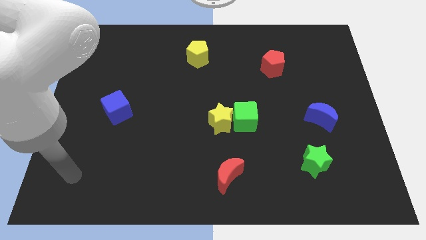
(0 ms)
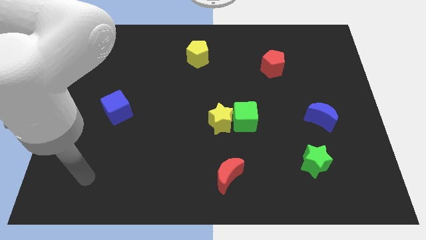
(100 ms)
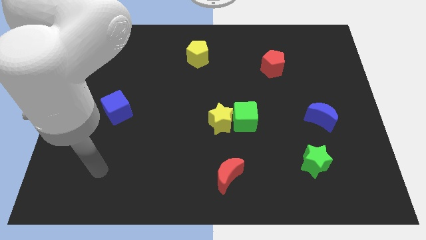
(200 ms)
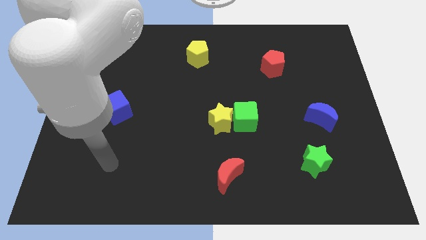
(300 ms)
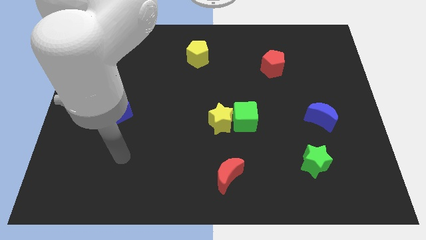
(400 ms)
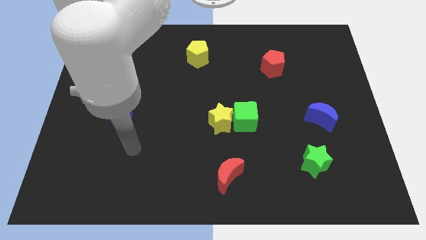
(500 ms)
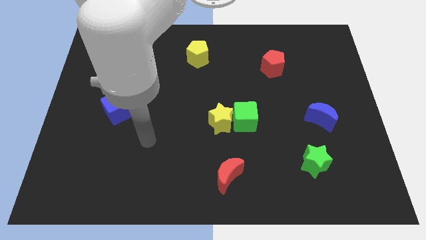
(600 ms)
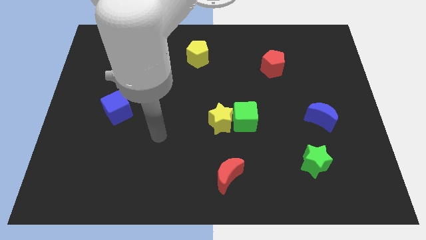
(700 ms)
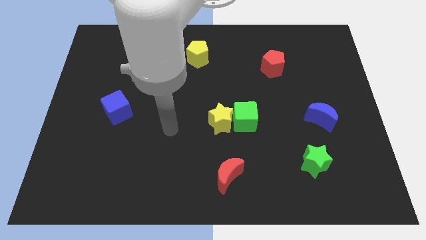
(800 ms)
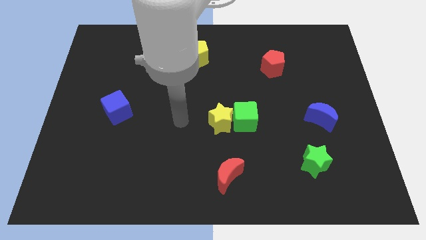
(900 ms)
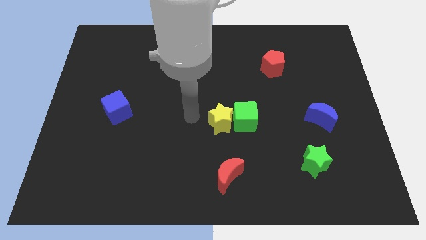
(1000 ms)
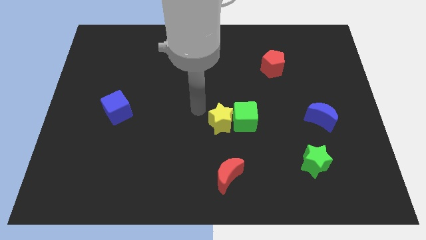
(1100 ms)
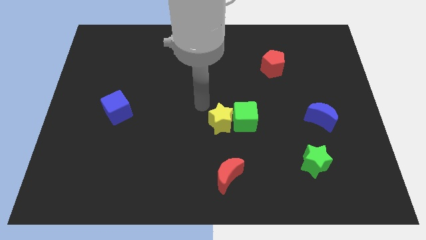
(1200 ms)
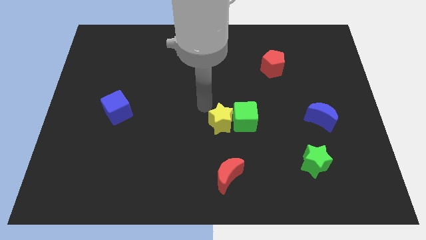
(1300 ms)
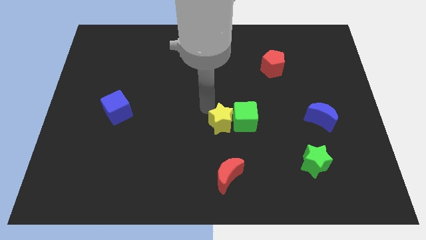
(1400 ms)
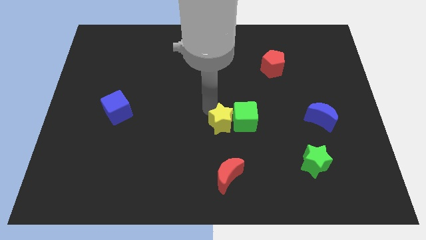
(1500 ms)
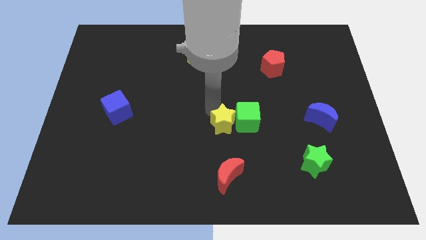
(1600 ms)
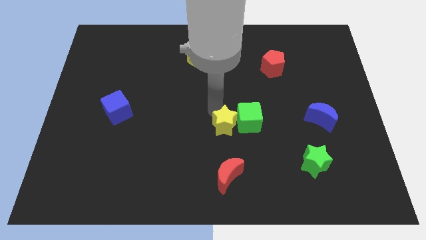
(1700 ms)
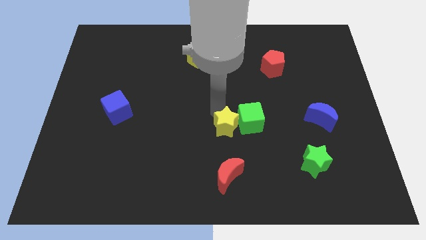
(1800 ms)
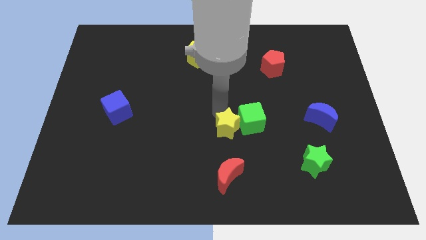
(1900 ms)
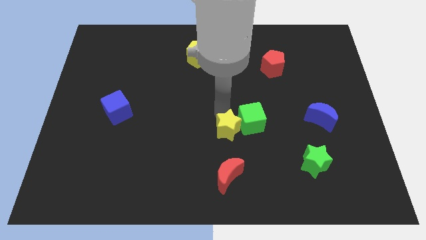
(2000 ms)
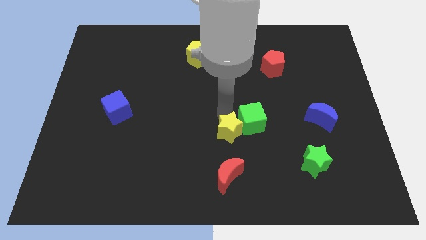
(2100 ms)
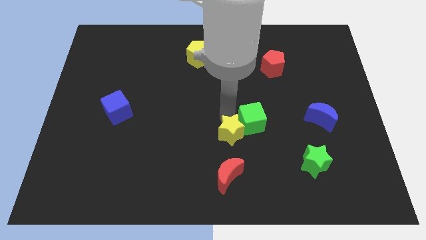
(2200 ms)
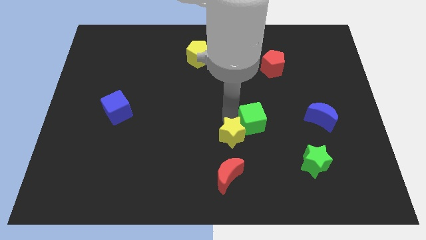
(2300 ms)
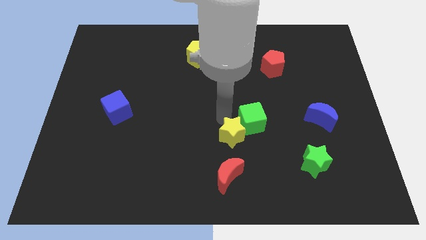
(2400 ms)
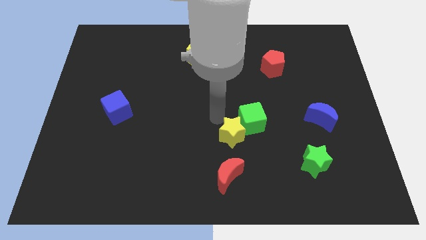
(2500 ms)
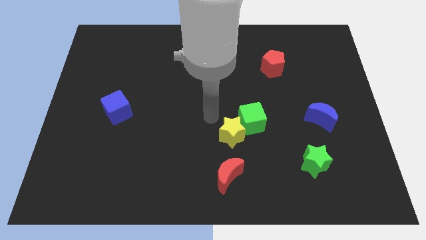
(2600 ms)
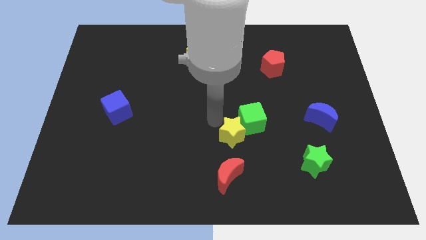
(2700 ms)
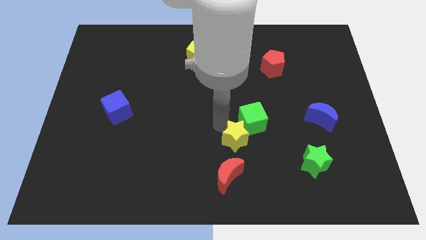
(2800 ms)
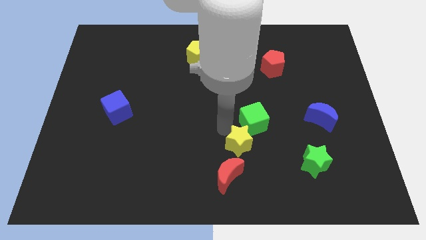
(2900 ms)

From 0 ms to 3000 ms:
move the yellow star a bit downwards and to the right diagonally

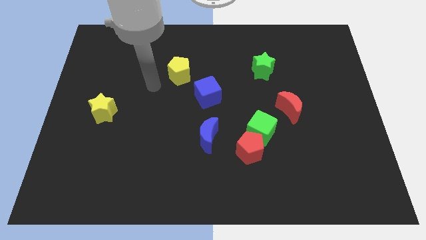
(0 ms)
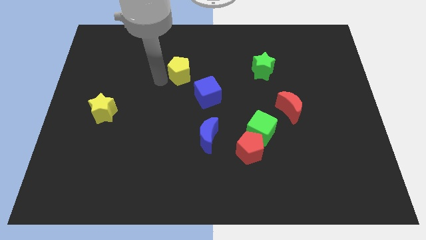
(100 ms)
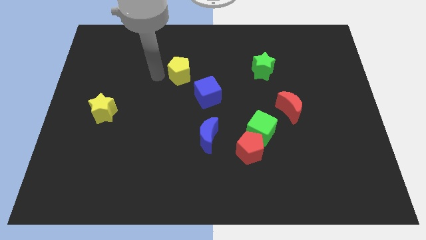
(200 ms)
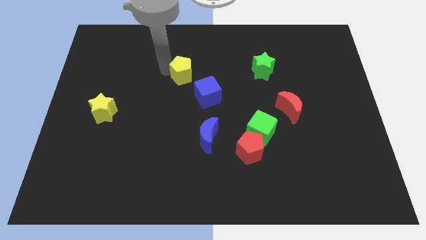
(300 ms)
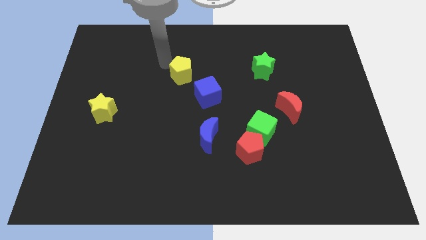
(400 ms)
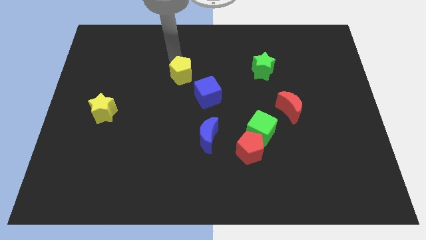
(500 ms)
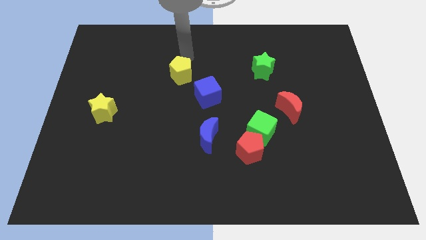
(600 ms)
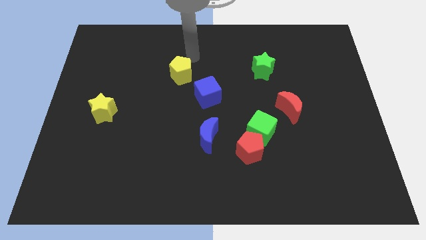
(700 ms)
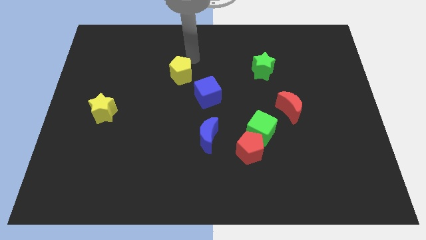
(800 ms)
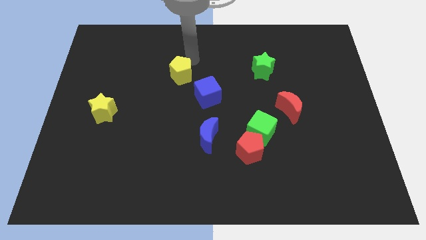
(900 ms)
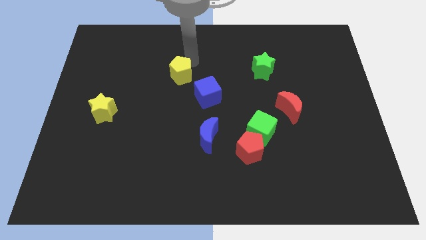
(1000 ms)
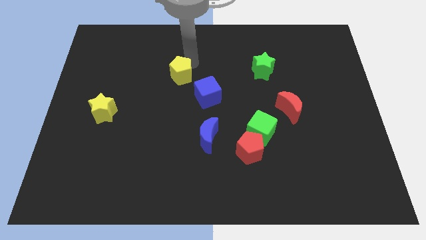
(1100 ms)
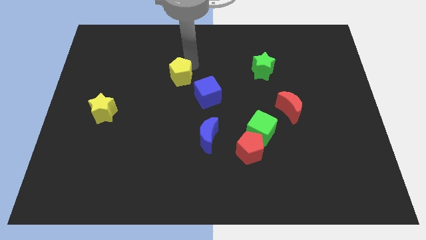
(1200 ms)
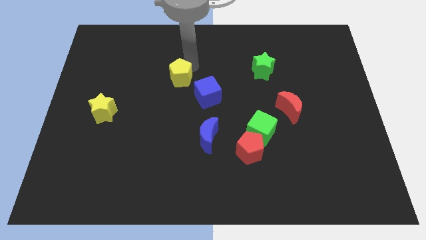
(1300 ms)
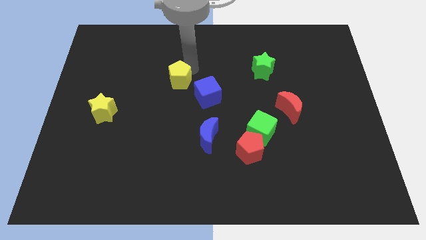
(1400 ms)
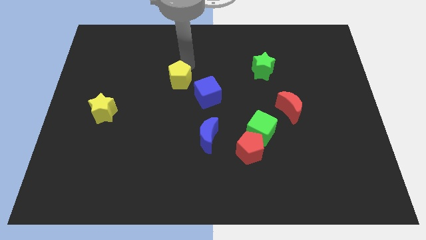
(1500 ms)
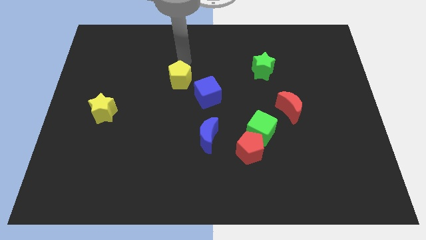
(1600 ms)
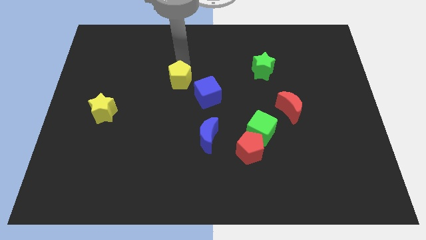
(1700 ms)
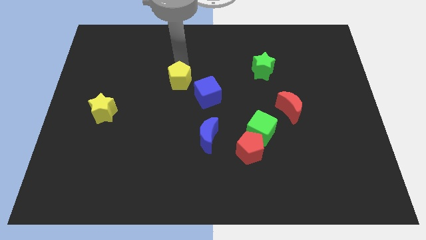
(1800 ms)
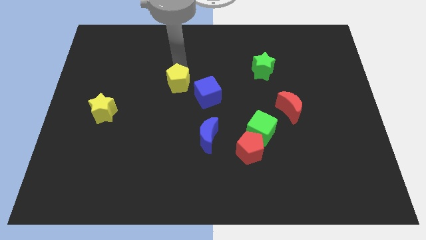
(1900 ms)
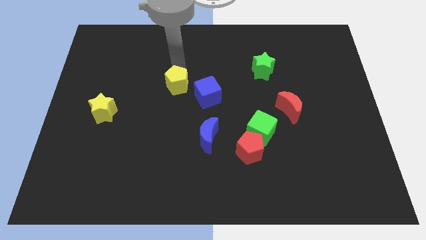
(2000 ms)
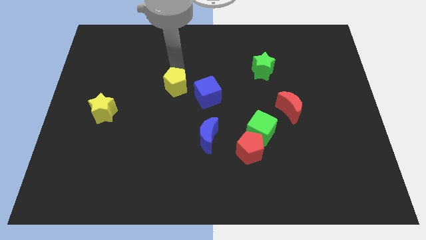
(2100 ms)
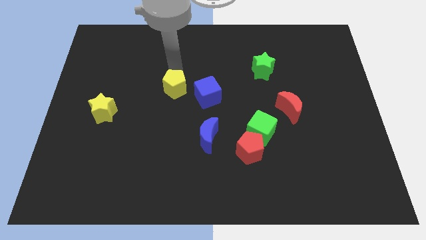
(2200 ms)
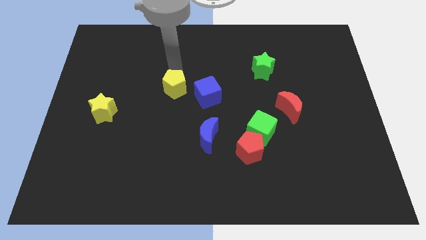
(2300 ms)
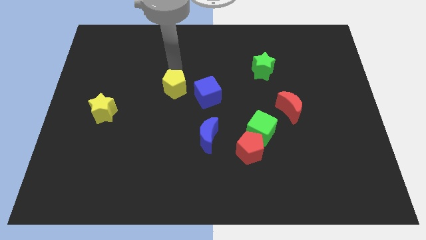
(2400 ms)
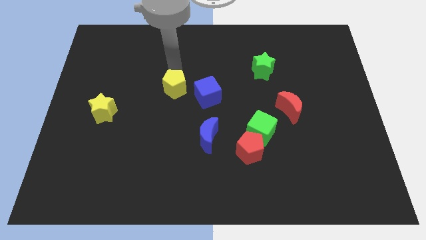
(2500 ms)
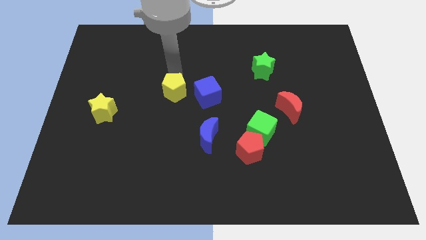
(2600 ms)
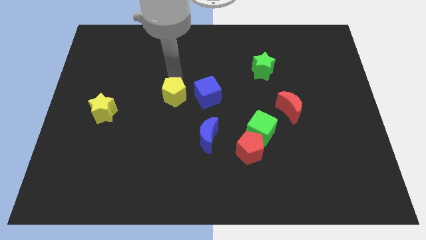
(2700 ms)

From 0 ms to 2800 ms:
slide the yellow pentagon down somewhat

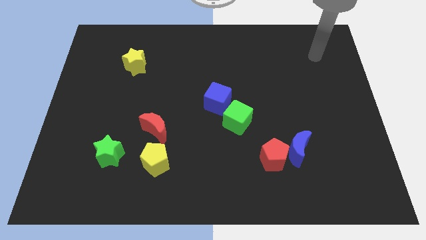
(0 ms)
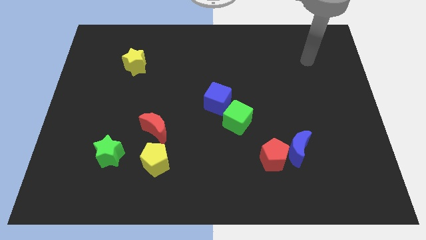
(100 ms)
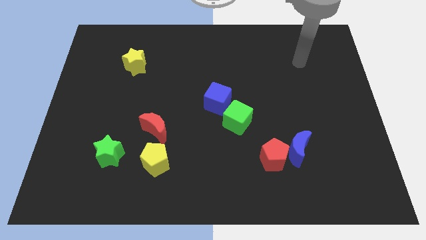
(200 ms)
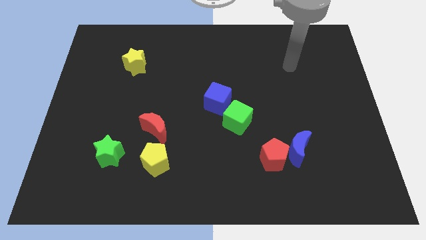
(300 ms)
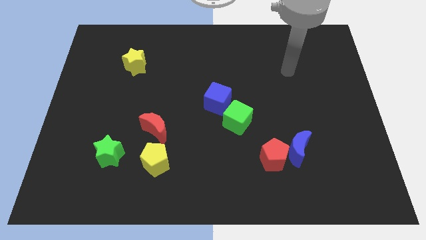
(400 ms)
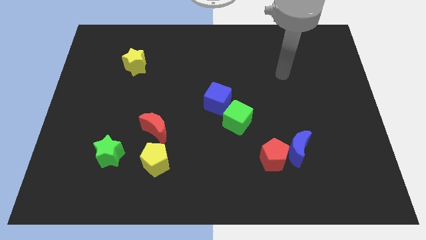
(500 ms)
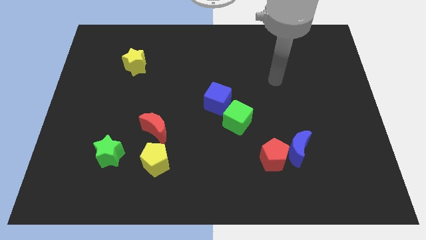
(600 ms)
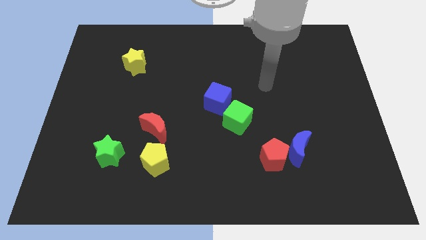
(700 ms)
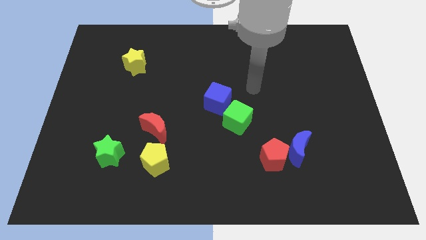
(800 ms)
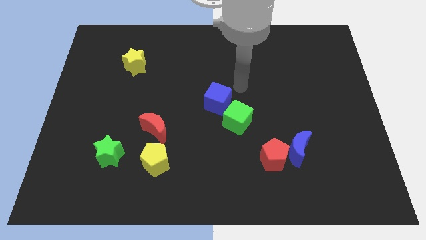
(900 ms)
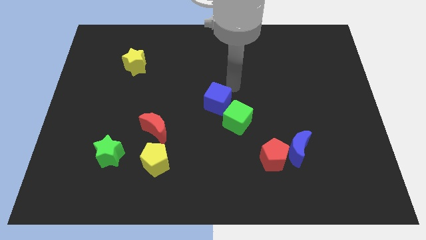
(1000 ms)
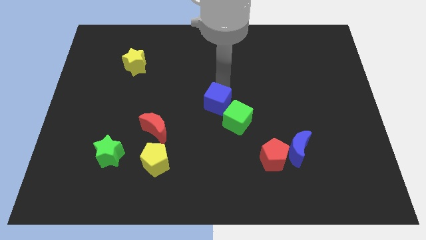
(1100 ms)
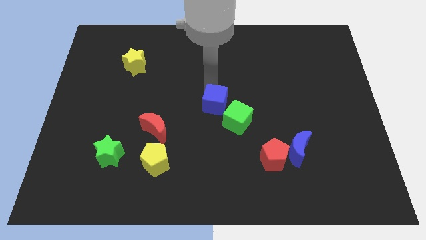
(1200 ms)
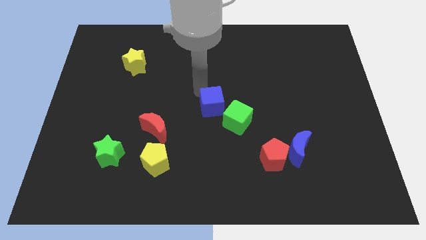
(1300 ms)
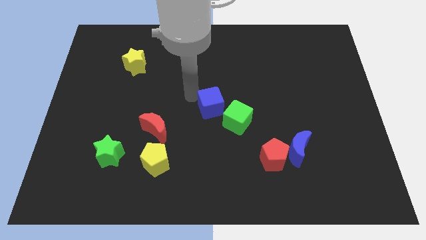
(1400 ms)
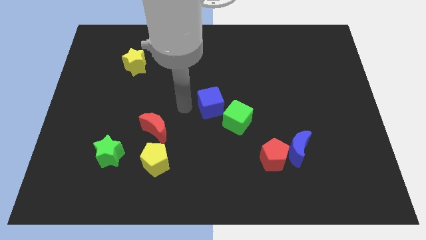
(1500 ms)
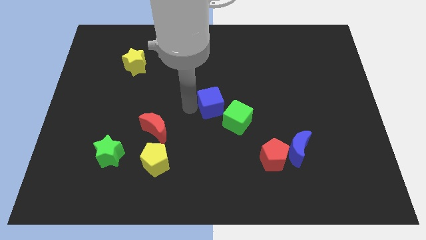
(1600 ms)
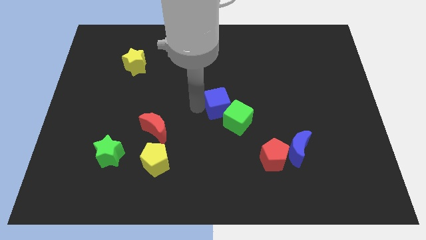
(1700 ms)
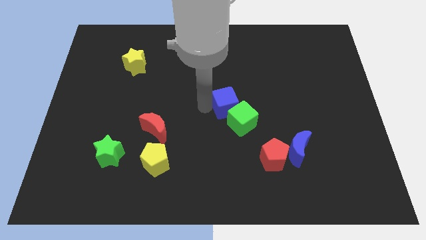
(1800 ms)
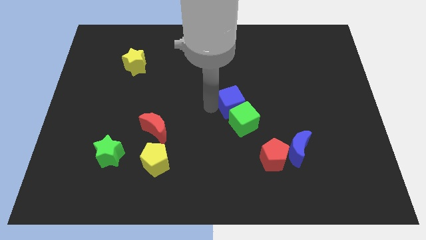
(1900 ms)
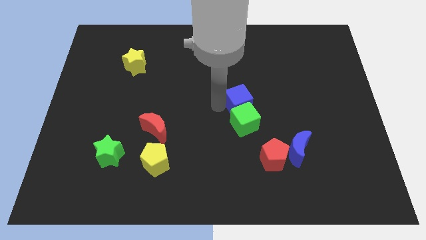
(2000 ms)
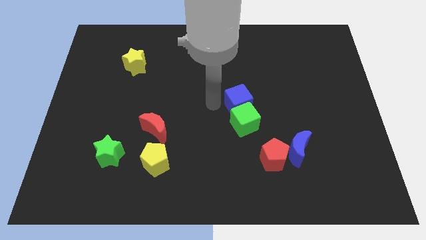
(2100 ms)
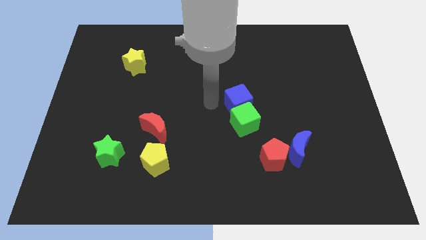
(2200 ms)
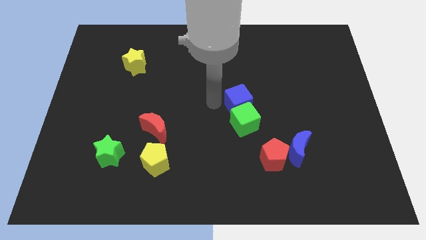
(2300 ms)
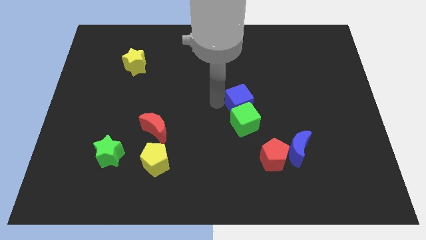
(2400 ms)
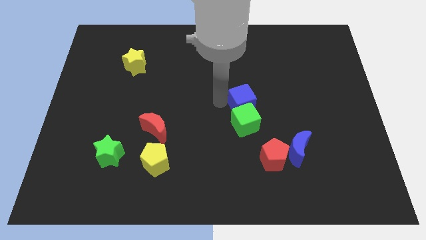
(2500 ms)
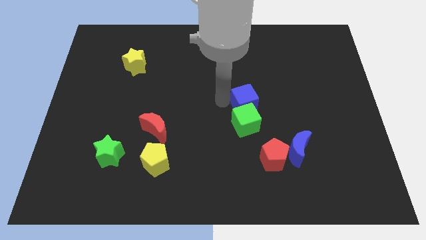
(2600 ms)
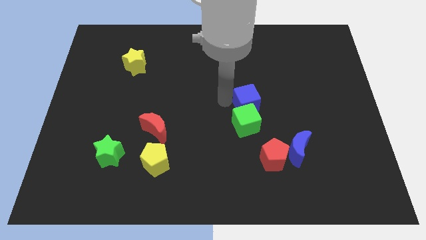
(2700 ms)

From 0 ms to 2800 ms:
slightly slide the blue cube right
